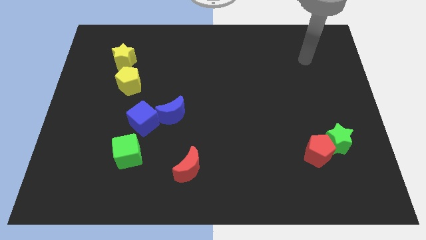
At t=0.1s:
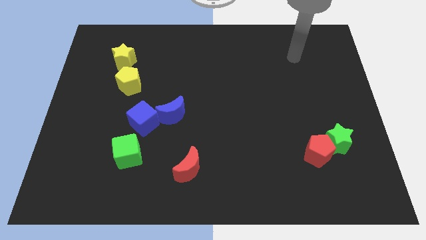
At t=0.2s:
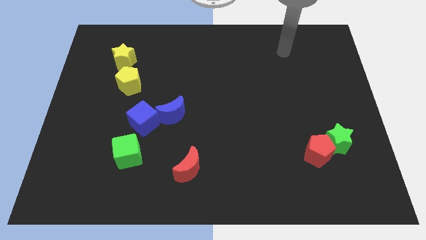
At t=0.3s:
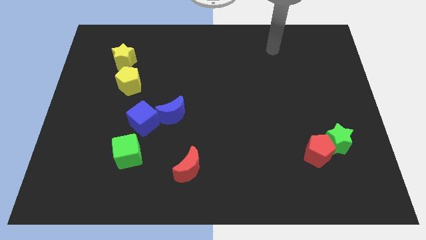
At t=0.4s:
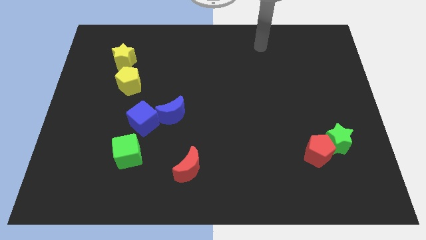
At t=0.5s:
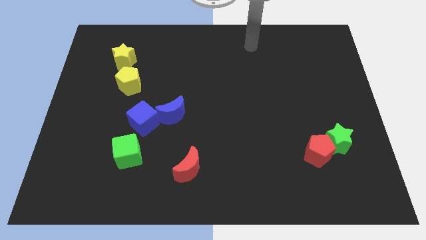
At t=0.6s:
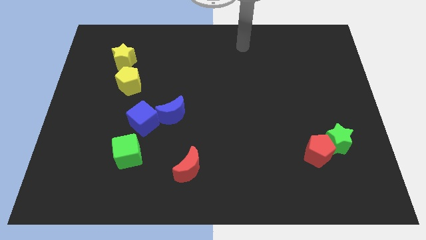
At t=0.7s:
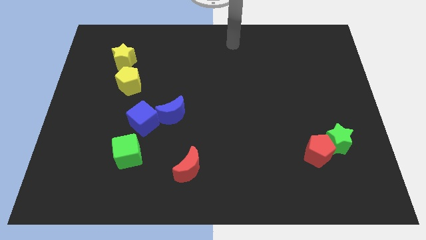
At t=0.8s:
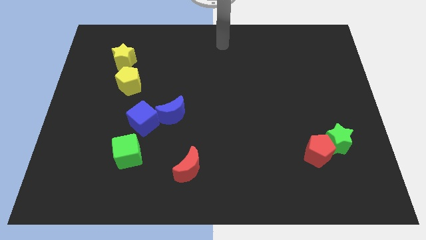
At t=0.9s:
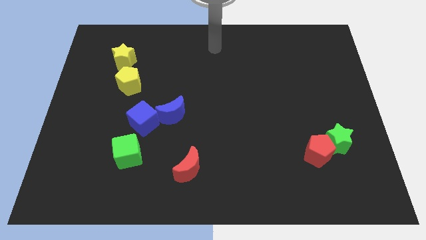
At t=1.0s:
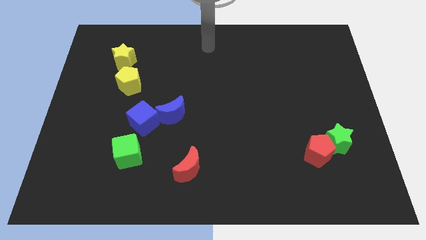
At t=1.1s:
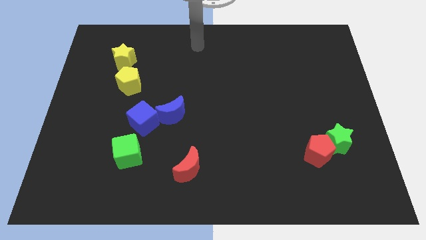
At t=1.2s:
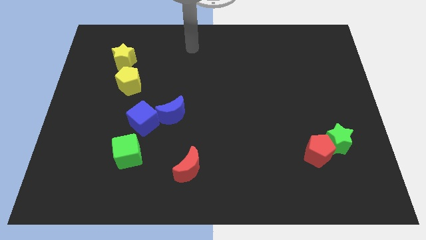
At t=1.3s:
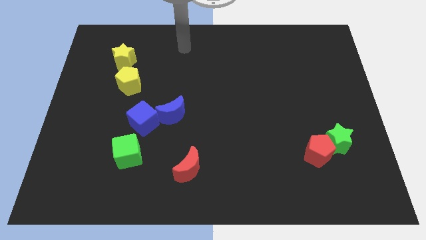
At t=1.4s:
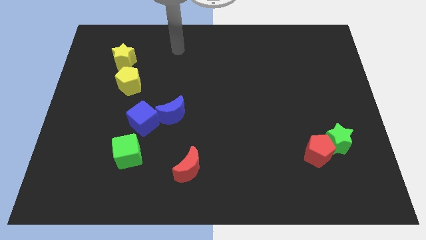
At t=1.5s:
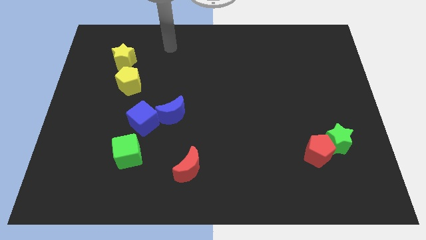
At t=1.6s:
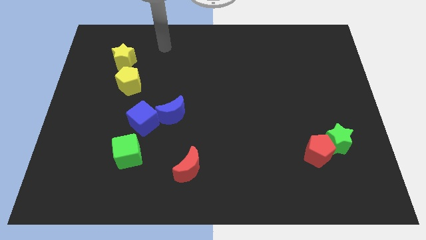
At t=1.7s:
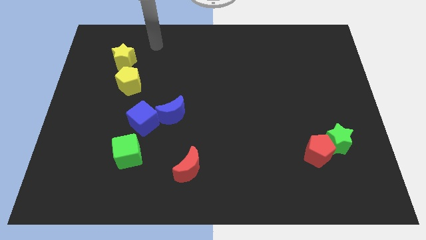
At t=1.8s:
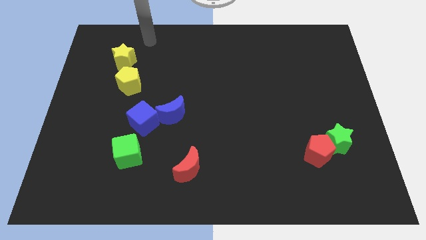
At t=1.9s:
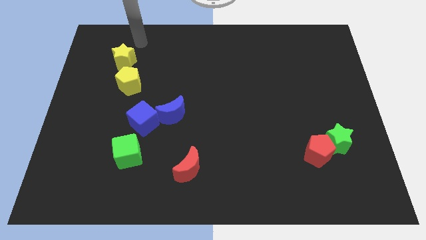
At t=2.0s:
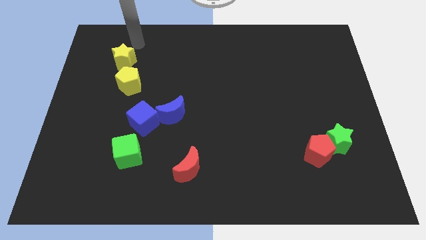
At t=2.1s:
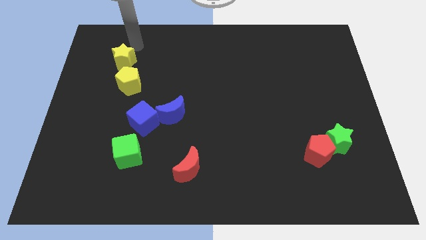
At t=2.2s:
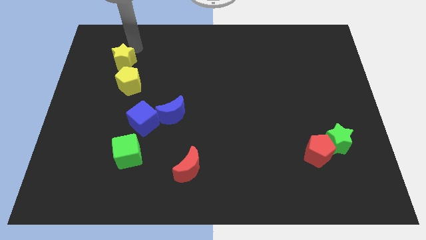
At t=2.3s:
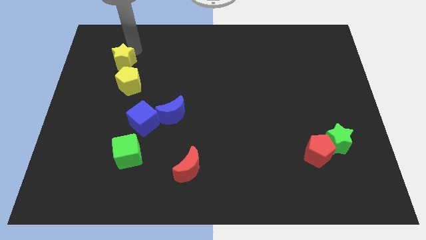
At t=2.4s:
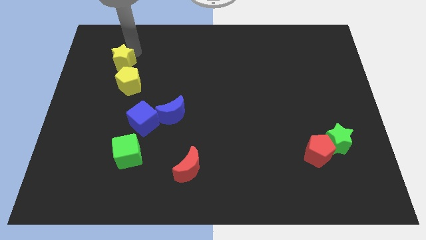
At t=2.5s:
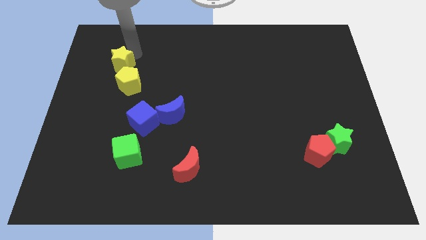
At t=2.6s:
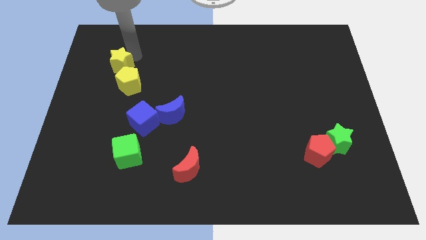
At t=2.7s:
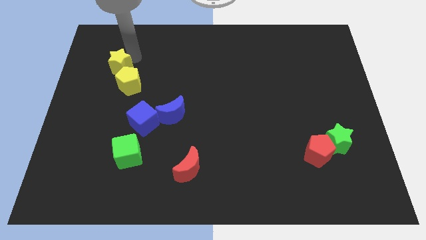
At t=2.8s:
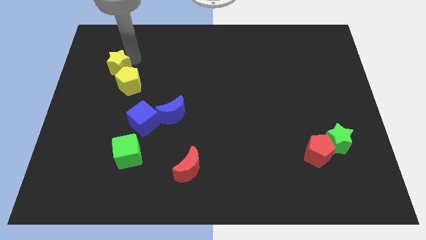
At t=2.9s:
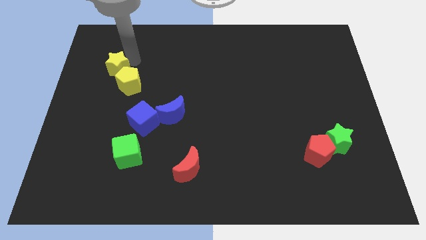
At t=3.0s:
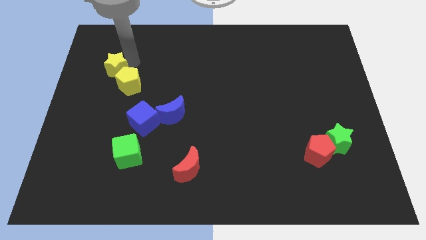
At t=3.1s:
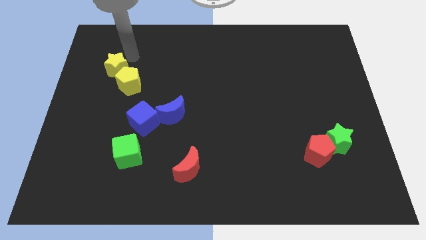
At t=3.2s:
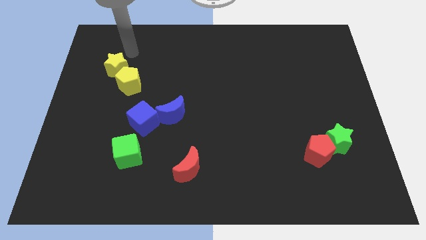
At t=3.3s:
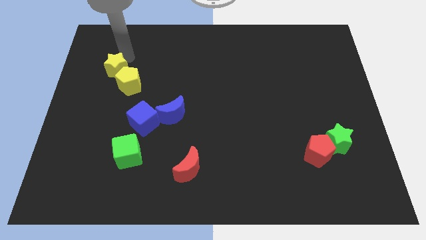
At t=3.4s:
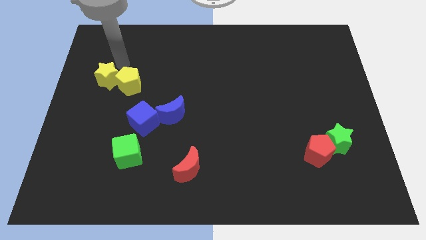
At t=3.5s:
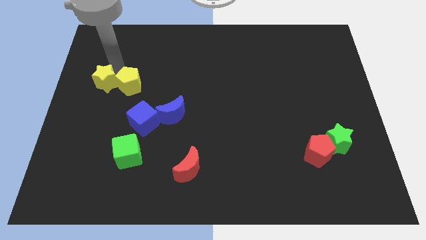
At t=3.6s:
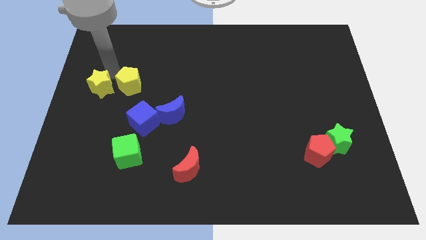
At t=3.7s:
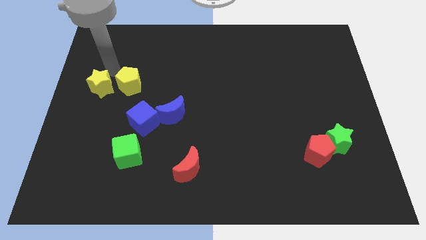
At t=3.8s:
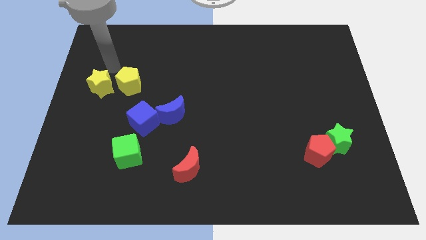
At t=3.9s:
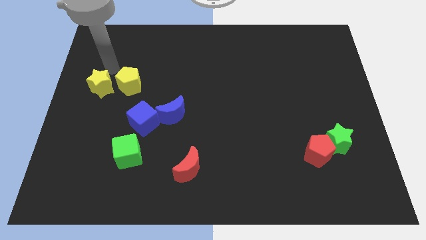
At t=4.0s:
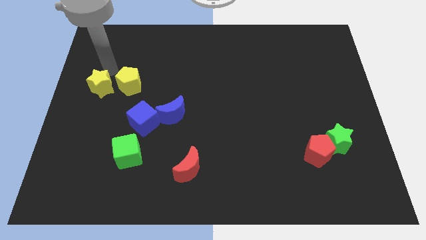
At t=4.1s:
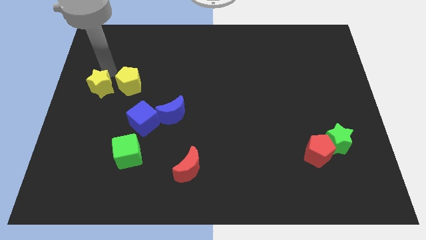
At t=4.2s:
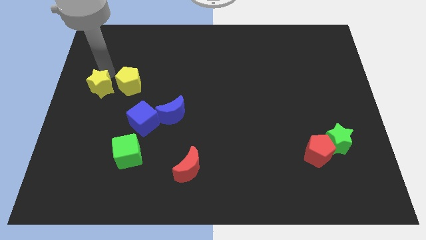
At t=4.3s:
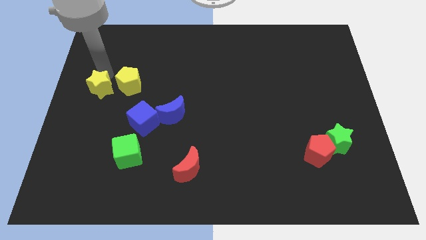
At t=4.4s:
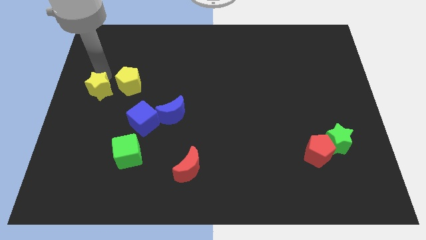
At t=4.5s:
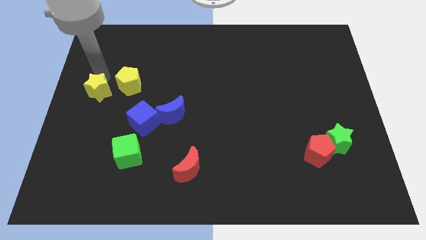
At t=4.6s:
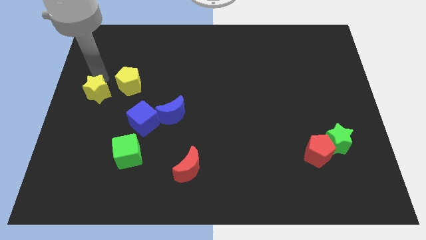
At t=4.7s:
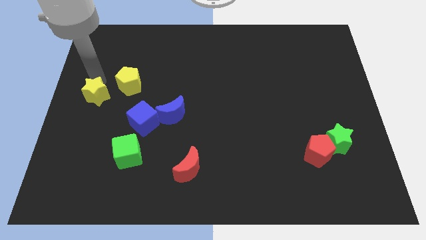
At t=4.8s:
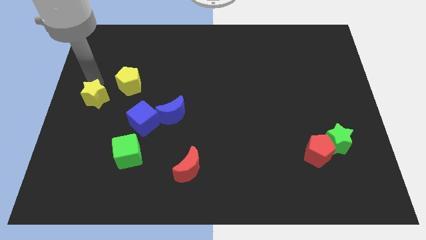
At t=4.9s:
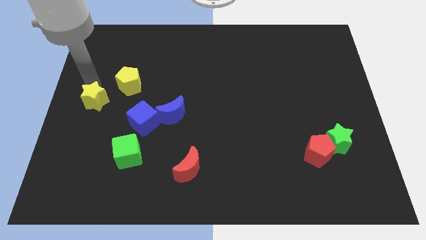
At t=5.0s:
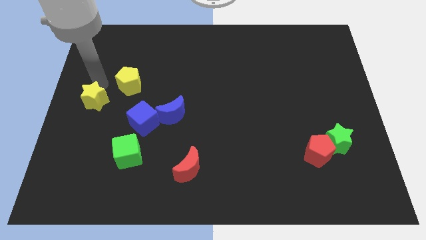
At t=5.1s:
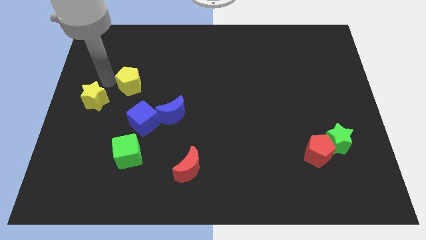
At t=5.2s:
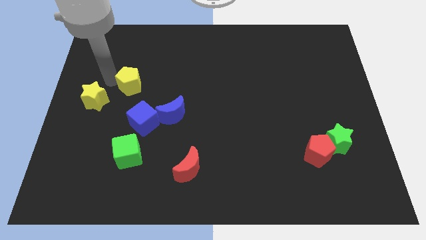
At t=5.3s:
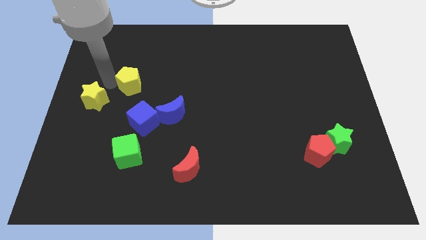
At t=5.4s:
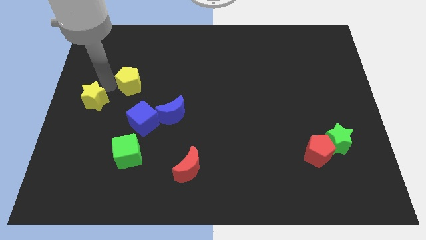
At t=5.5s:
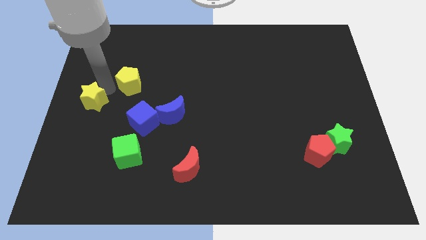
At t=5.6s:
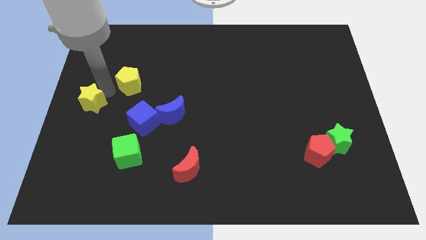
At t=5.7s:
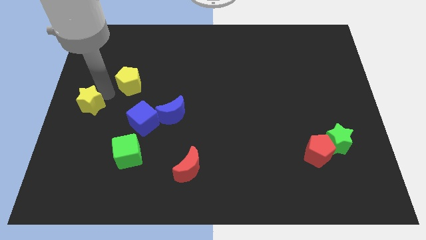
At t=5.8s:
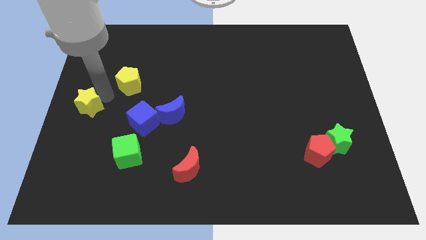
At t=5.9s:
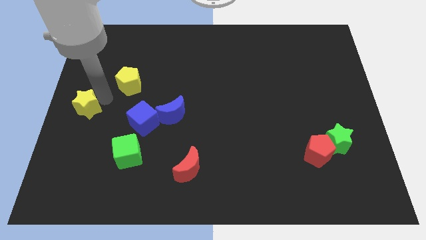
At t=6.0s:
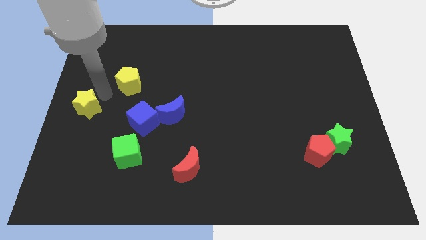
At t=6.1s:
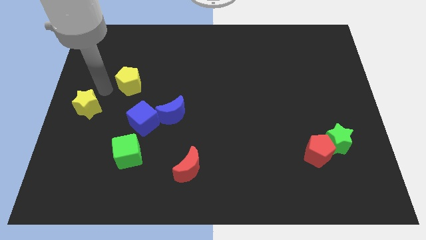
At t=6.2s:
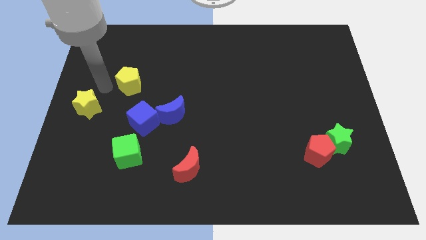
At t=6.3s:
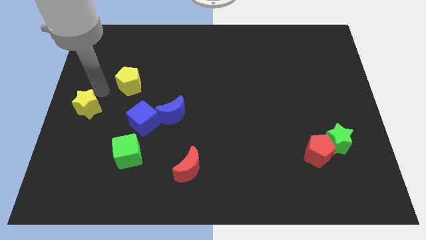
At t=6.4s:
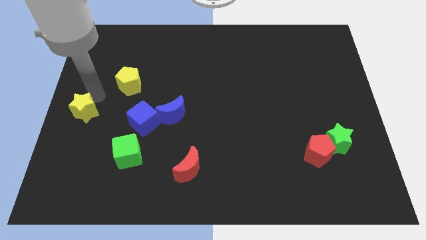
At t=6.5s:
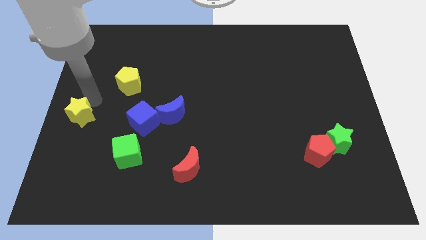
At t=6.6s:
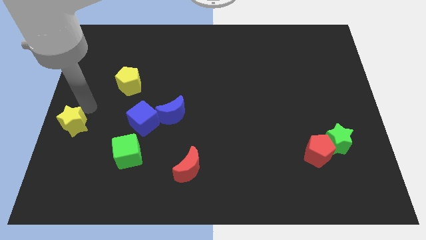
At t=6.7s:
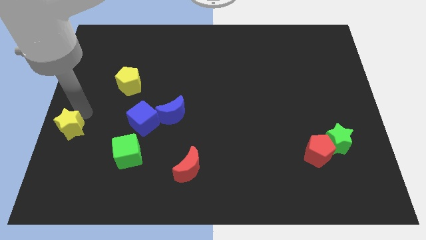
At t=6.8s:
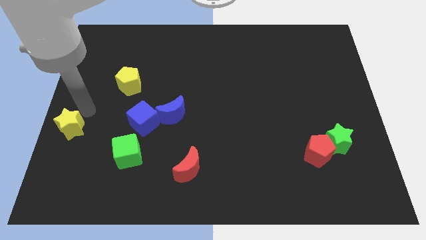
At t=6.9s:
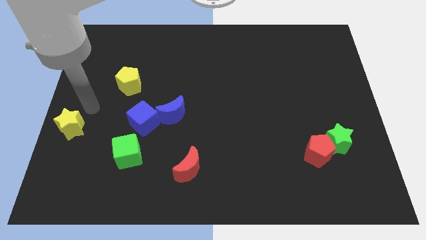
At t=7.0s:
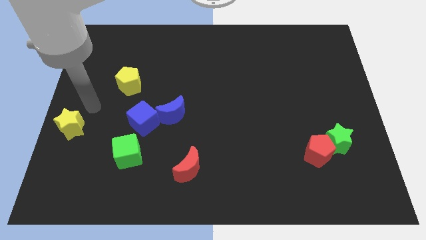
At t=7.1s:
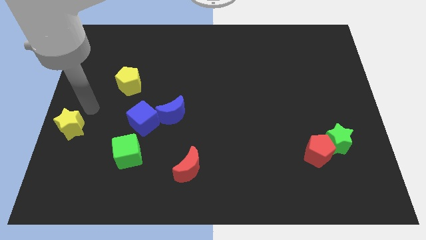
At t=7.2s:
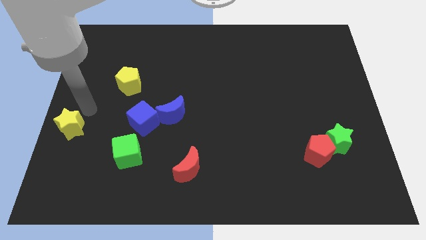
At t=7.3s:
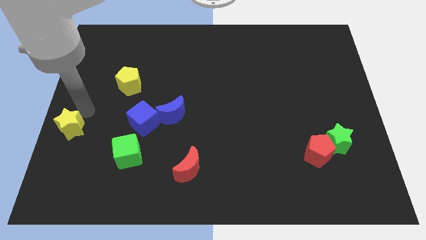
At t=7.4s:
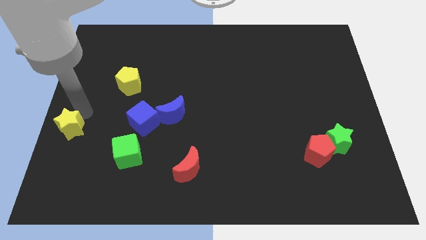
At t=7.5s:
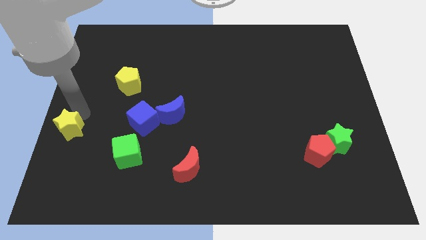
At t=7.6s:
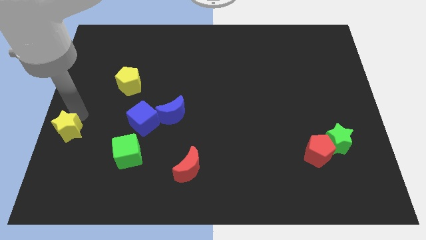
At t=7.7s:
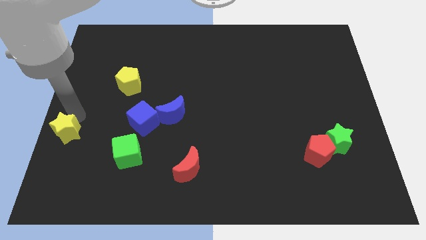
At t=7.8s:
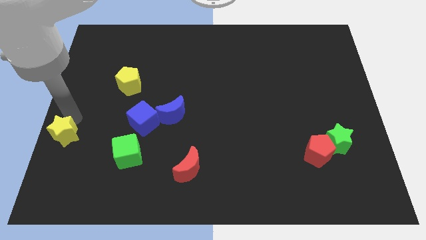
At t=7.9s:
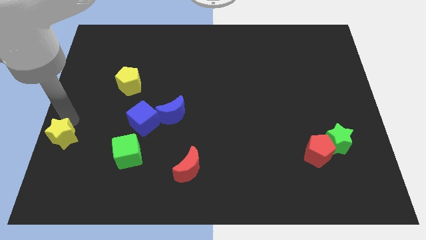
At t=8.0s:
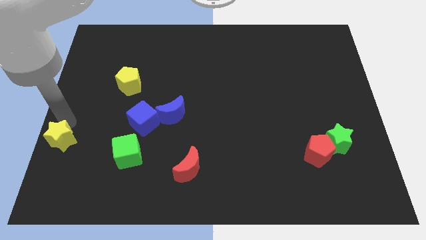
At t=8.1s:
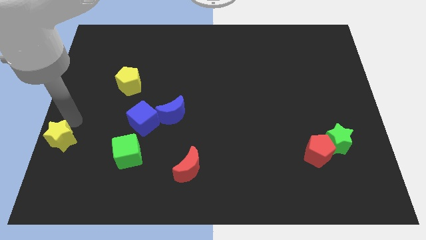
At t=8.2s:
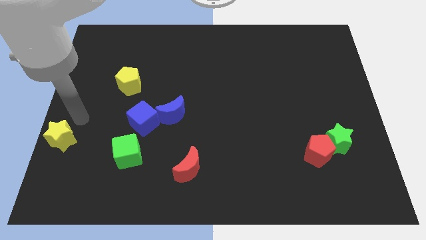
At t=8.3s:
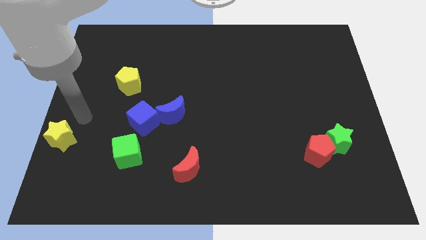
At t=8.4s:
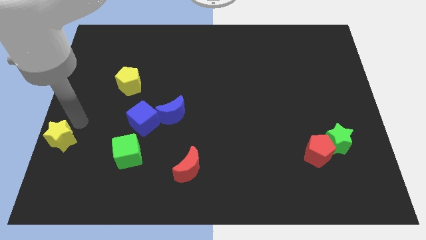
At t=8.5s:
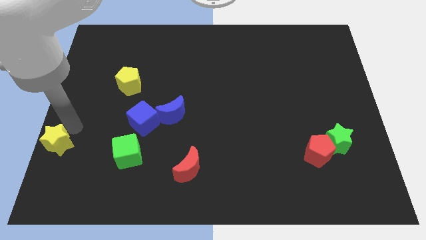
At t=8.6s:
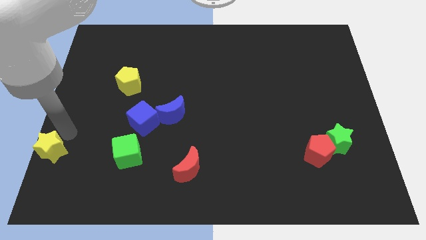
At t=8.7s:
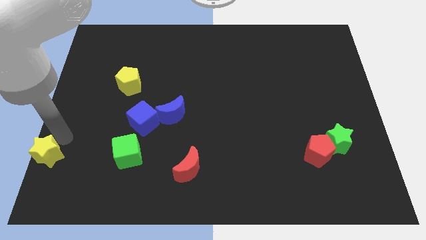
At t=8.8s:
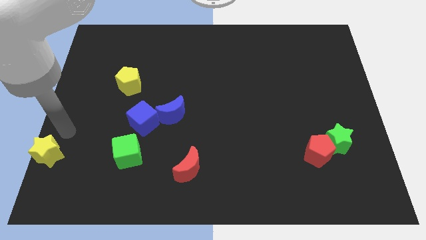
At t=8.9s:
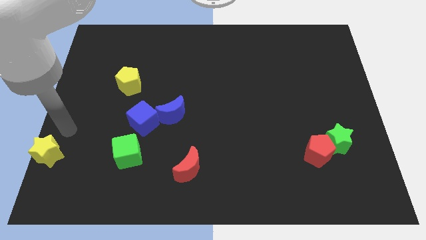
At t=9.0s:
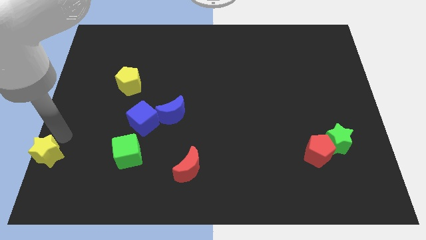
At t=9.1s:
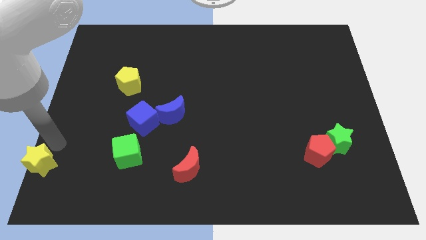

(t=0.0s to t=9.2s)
slide the yellow star to the lower left corner
